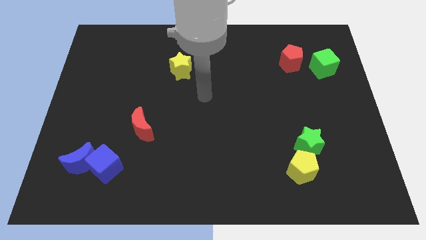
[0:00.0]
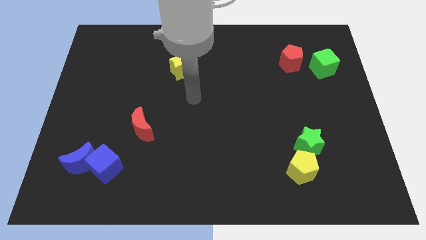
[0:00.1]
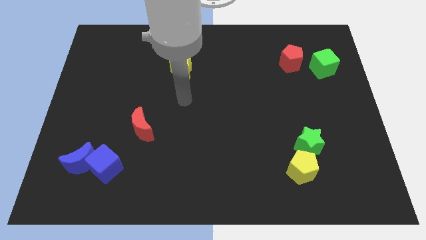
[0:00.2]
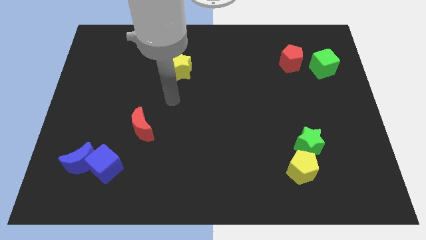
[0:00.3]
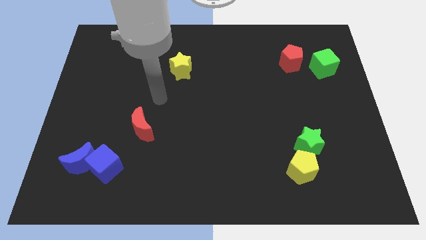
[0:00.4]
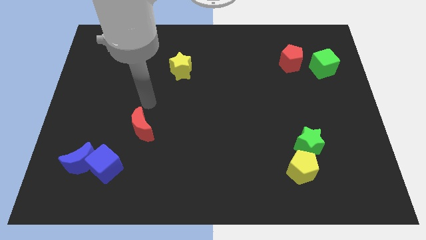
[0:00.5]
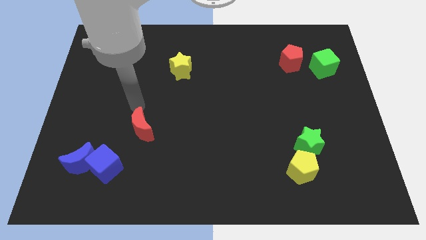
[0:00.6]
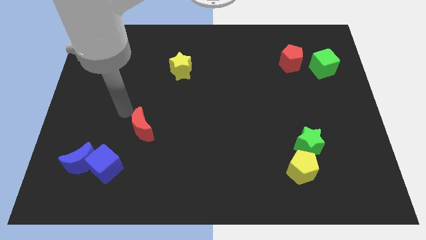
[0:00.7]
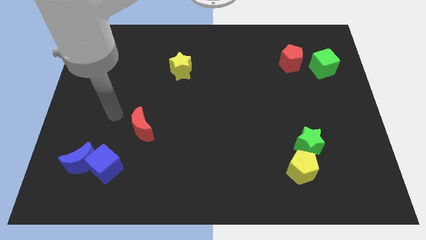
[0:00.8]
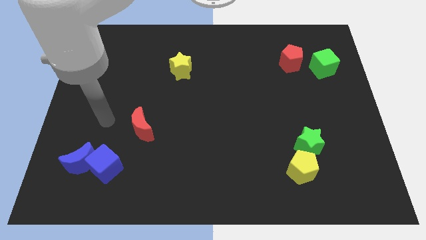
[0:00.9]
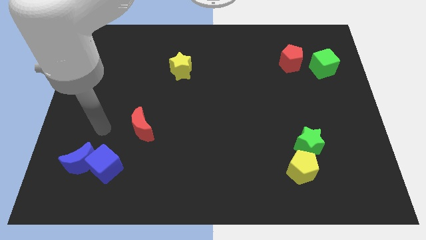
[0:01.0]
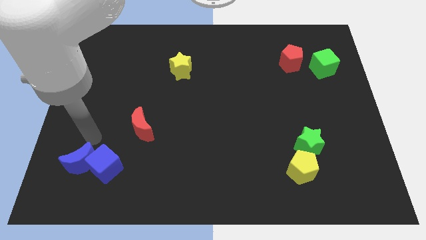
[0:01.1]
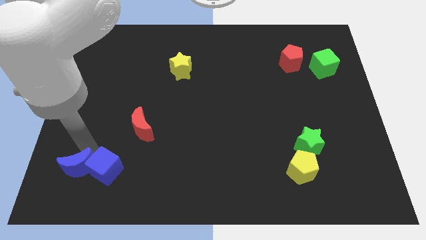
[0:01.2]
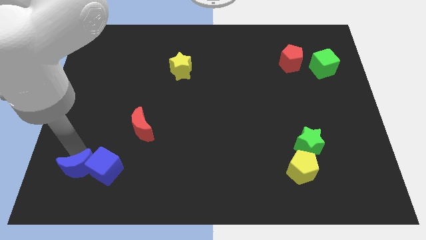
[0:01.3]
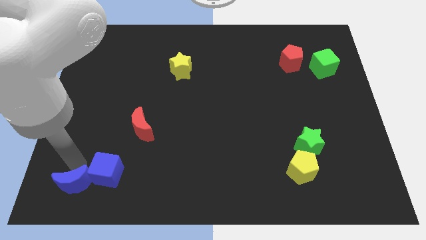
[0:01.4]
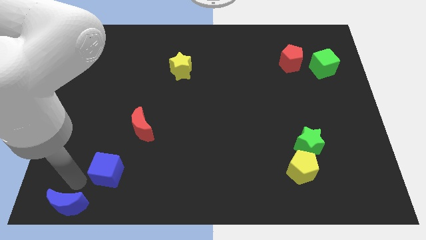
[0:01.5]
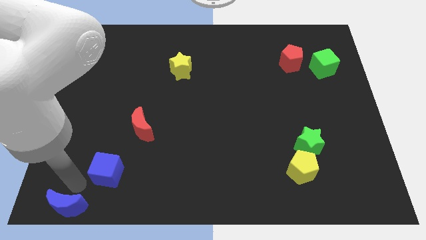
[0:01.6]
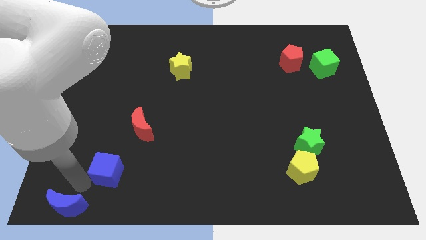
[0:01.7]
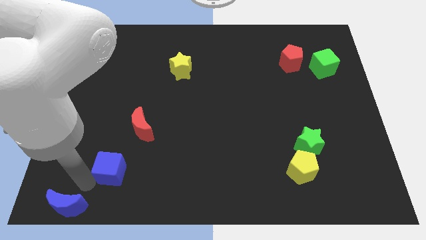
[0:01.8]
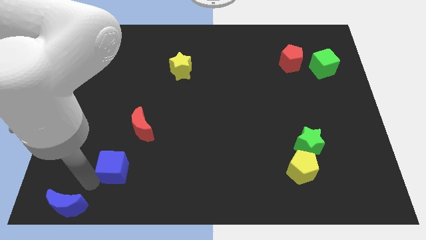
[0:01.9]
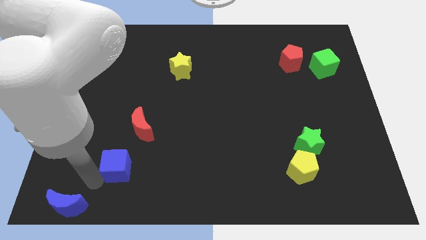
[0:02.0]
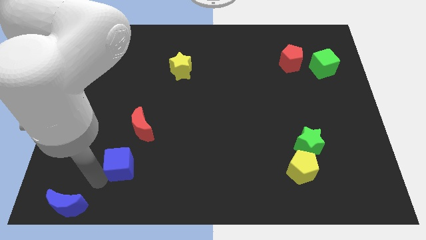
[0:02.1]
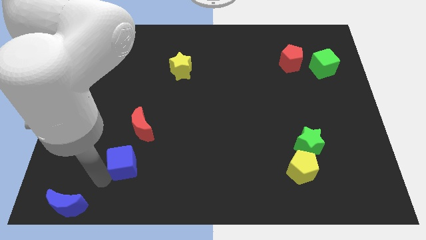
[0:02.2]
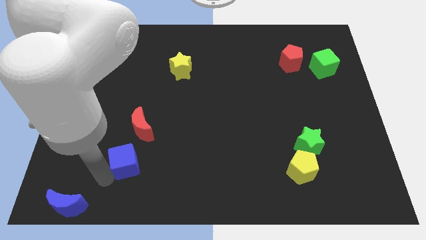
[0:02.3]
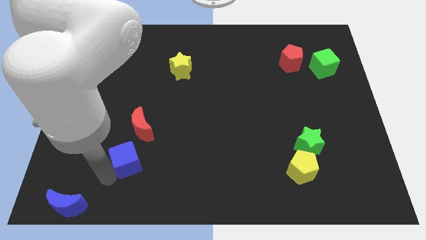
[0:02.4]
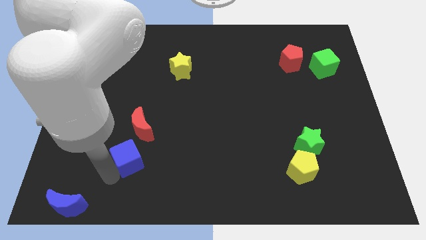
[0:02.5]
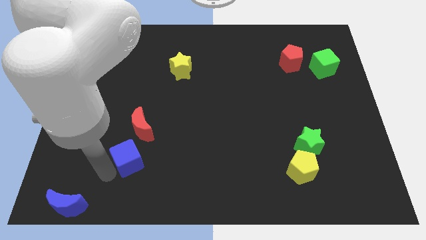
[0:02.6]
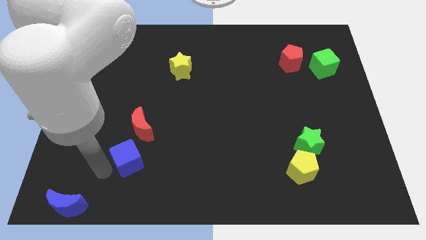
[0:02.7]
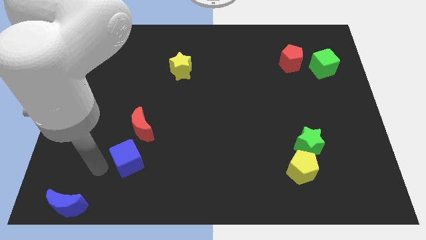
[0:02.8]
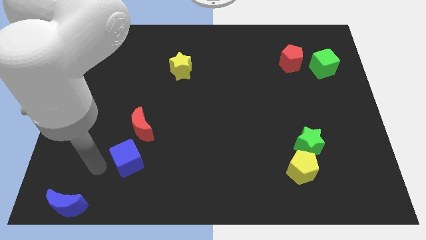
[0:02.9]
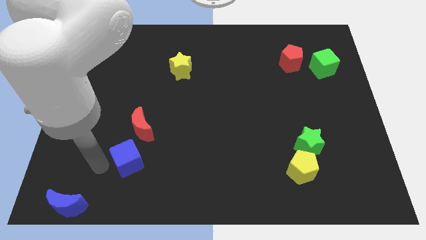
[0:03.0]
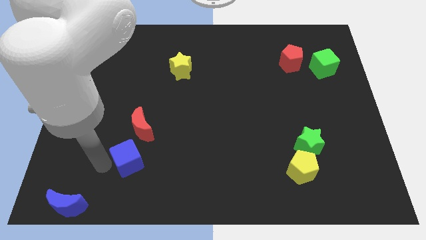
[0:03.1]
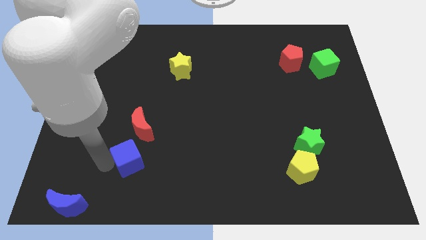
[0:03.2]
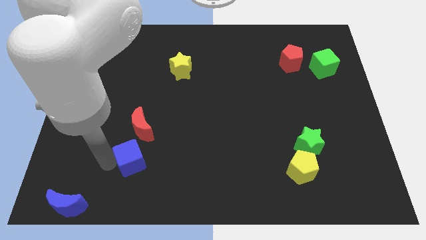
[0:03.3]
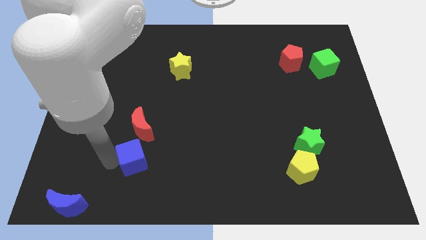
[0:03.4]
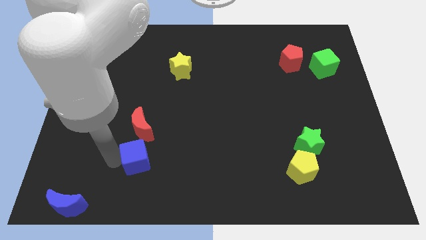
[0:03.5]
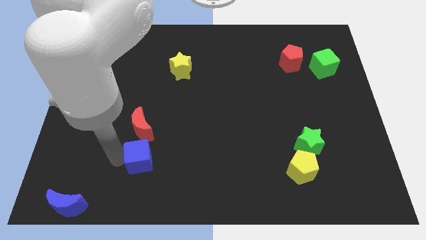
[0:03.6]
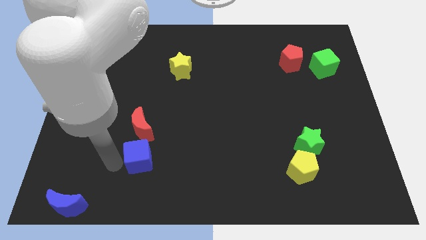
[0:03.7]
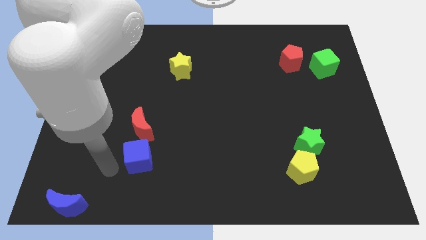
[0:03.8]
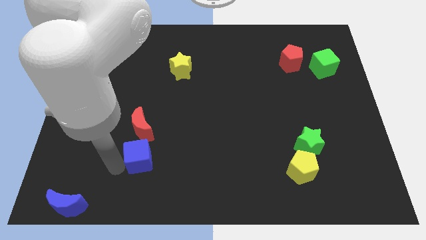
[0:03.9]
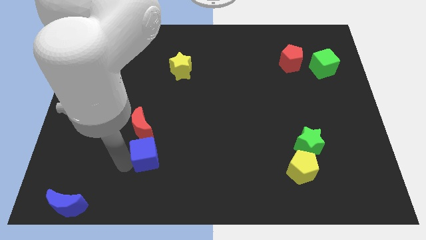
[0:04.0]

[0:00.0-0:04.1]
slightly slide the blue cube up and then right

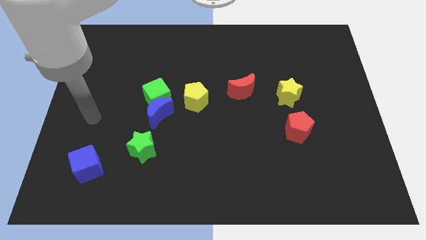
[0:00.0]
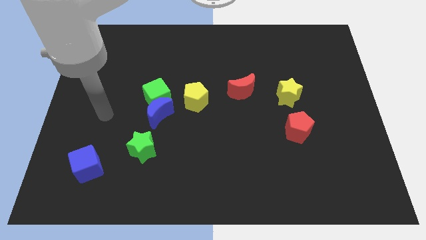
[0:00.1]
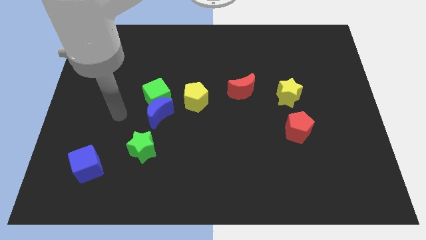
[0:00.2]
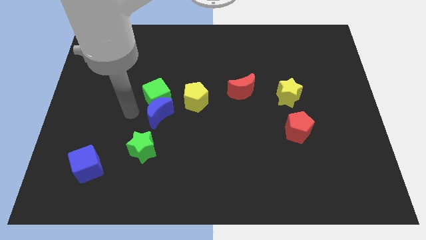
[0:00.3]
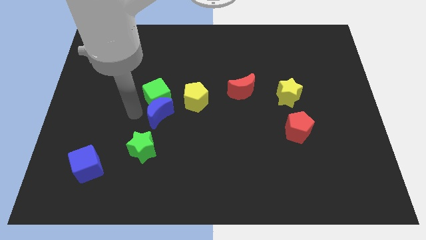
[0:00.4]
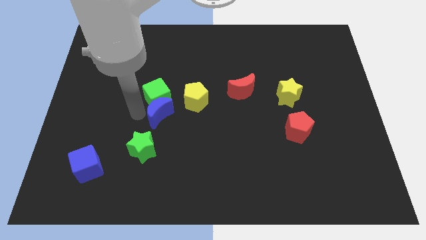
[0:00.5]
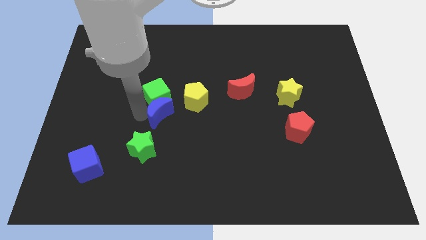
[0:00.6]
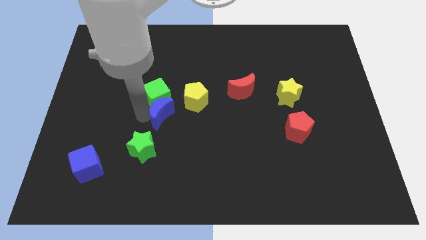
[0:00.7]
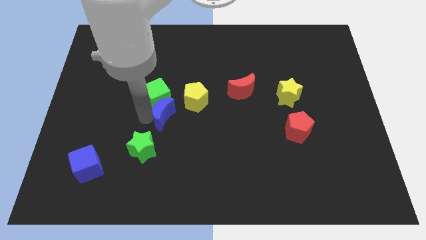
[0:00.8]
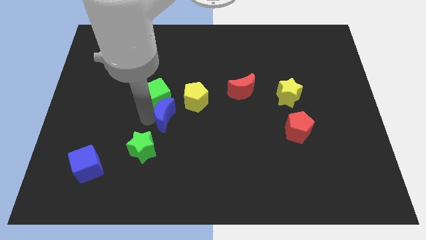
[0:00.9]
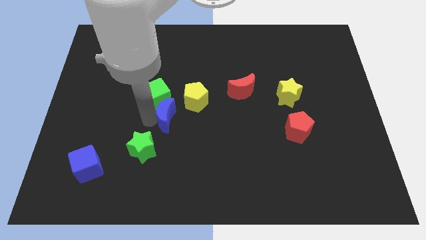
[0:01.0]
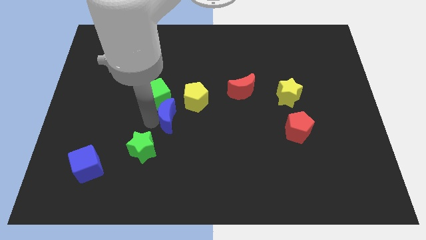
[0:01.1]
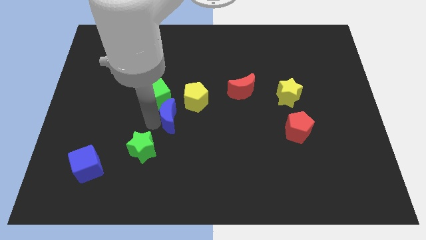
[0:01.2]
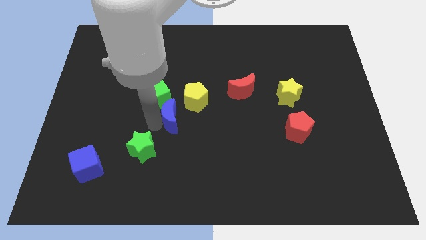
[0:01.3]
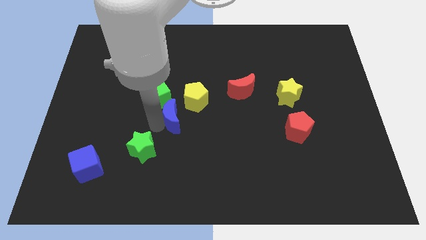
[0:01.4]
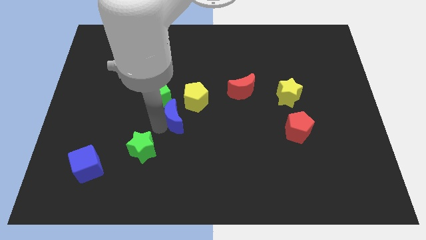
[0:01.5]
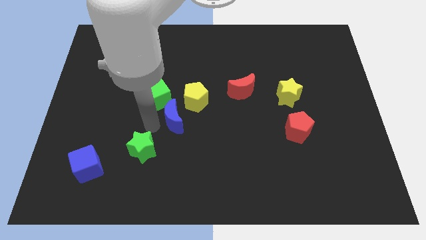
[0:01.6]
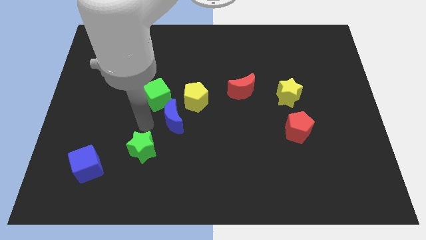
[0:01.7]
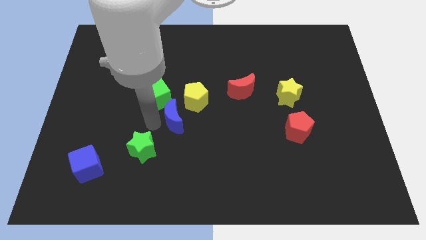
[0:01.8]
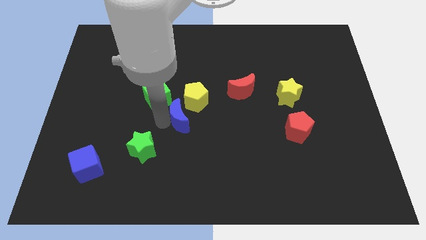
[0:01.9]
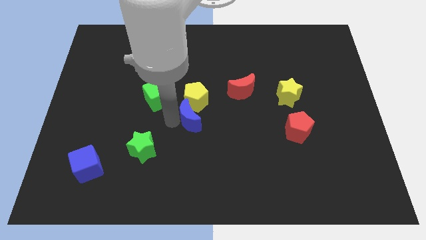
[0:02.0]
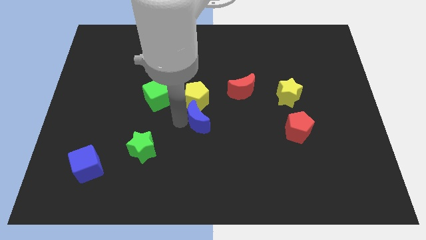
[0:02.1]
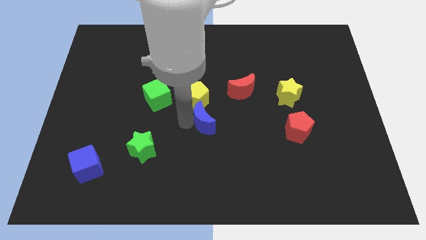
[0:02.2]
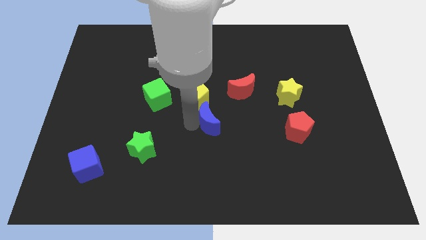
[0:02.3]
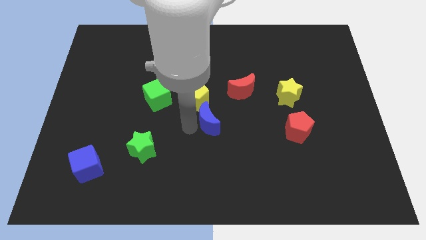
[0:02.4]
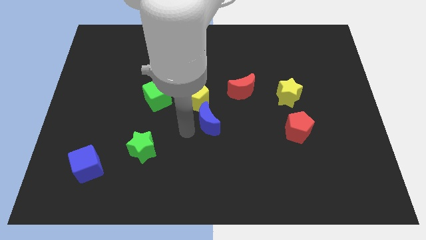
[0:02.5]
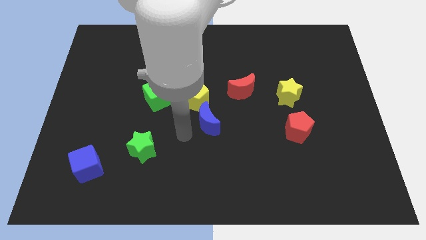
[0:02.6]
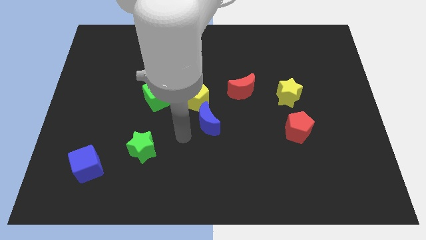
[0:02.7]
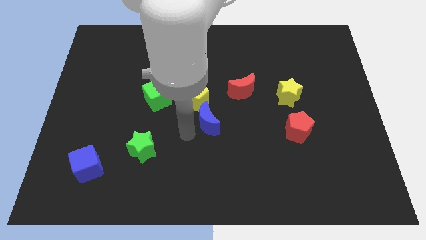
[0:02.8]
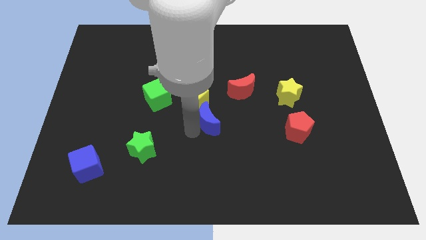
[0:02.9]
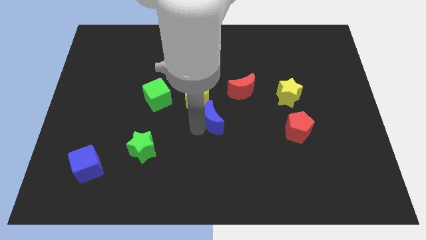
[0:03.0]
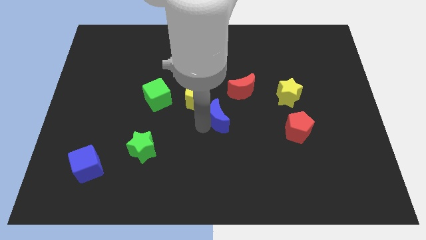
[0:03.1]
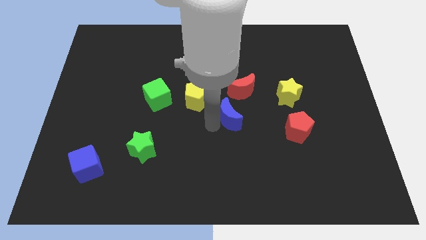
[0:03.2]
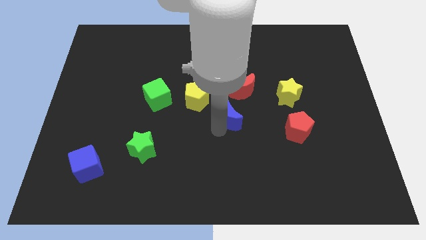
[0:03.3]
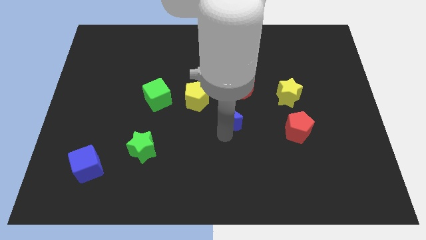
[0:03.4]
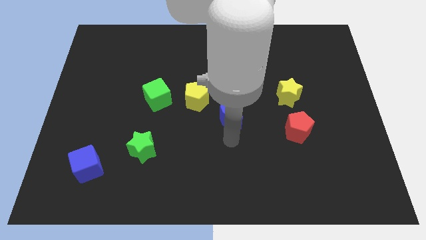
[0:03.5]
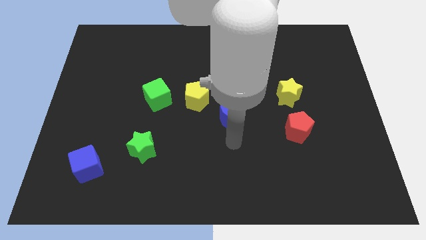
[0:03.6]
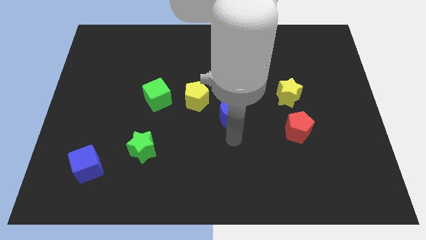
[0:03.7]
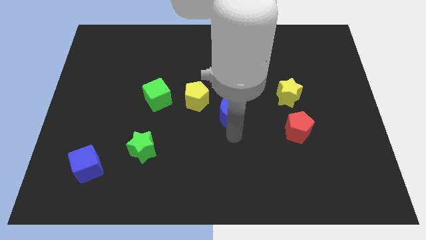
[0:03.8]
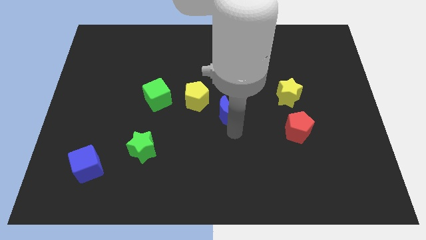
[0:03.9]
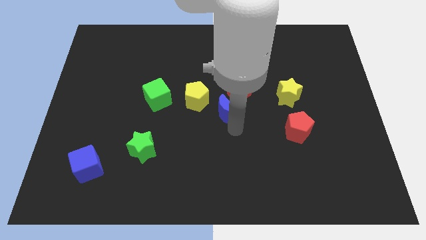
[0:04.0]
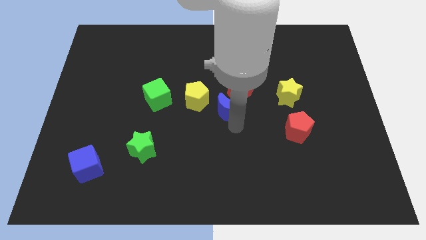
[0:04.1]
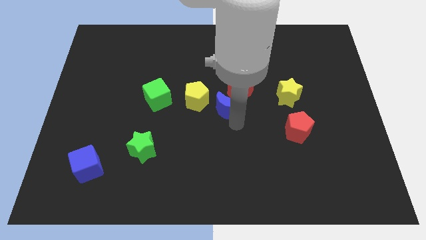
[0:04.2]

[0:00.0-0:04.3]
push the blue moon up and to the right a bit
